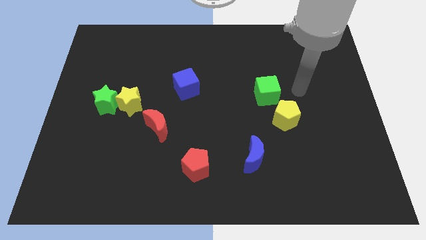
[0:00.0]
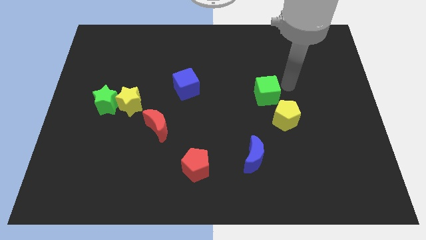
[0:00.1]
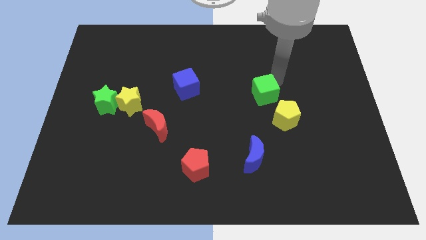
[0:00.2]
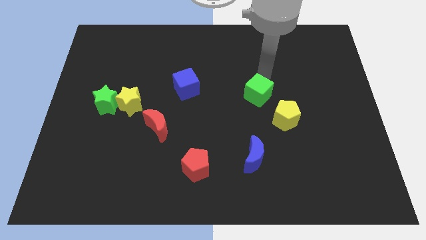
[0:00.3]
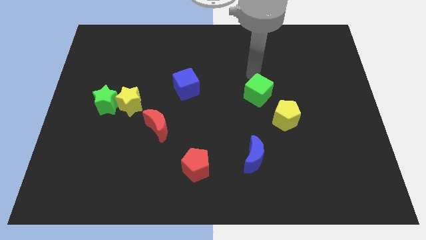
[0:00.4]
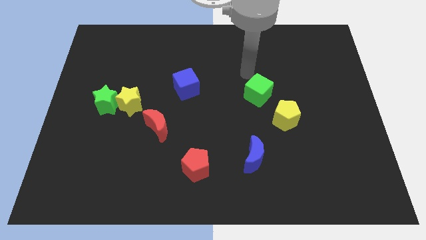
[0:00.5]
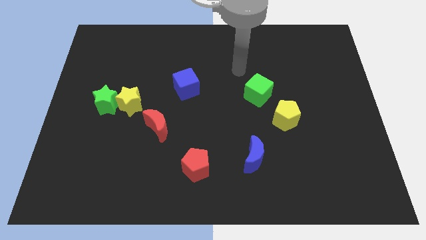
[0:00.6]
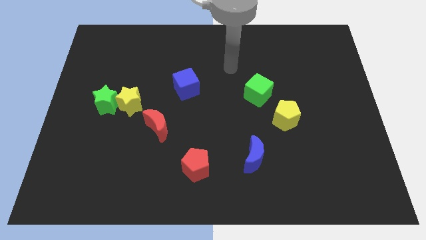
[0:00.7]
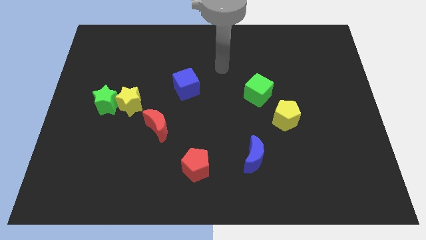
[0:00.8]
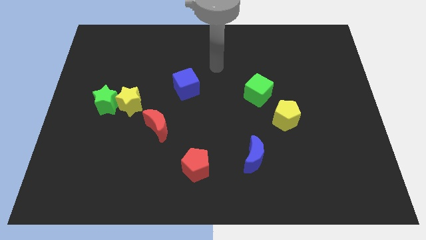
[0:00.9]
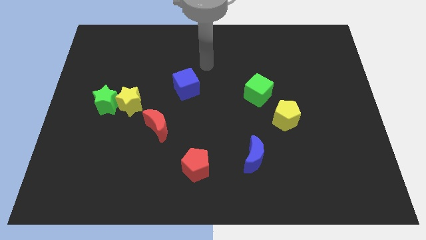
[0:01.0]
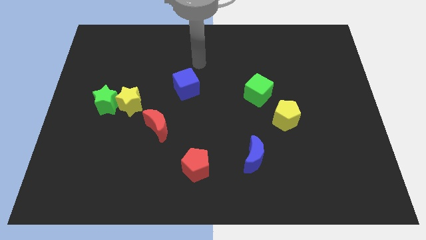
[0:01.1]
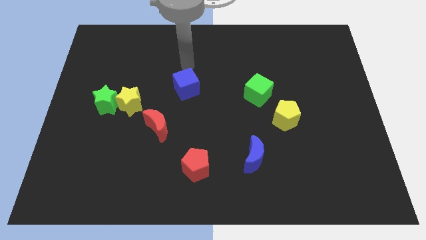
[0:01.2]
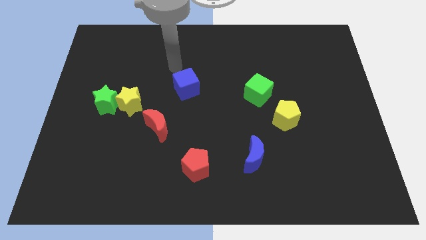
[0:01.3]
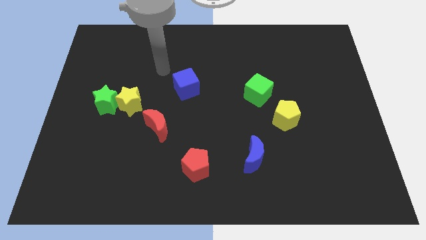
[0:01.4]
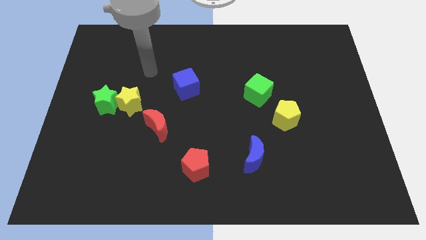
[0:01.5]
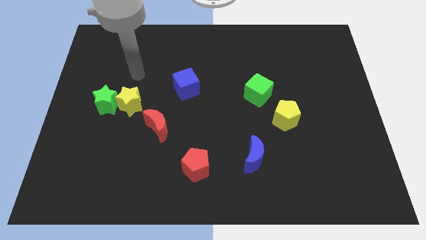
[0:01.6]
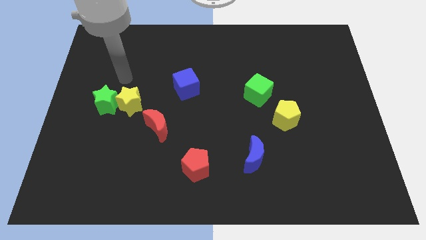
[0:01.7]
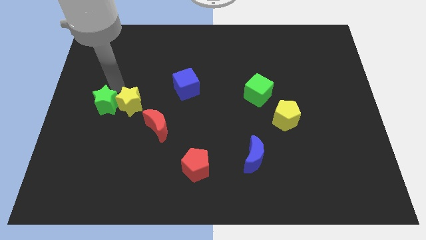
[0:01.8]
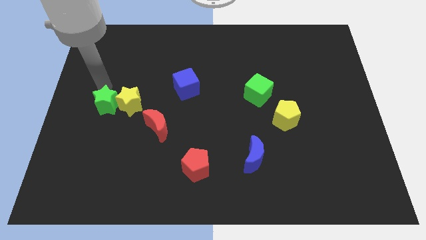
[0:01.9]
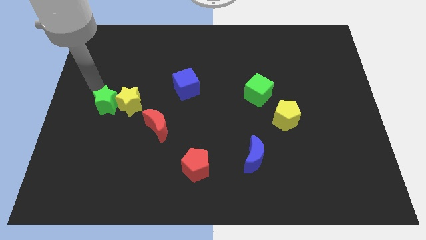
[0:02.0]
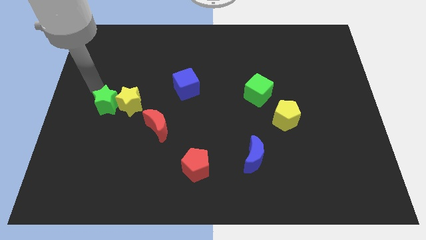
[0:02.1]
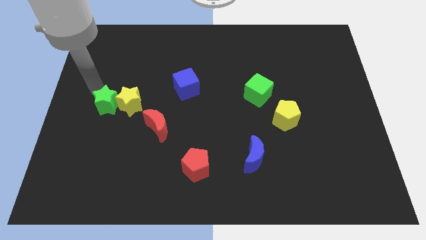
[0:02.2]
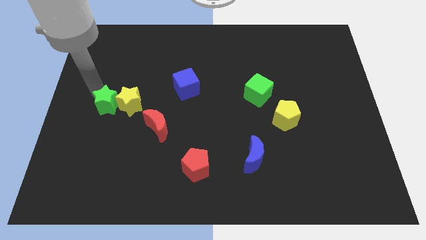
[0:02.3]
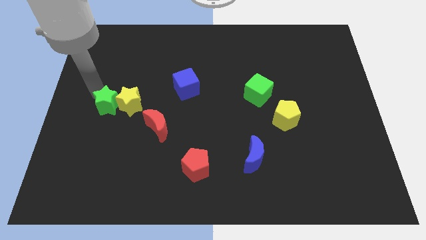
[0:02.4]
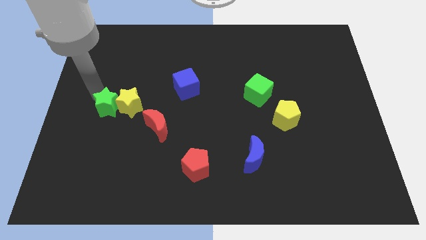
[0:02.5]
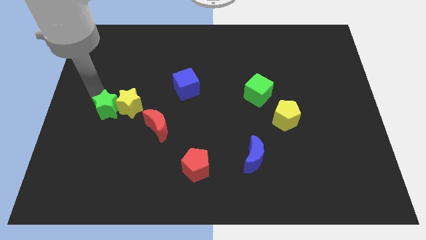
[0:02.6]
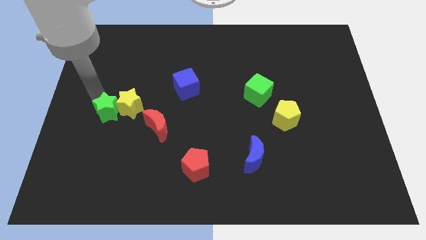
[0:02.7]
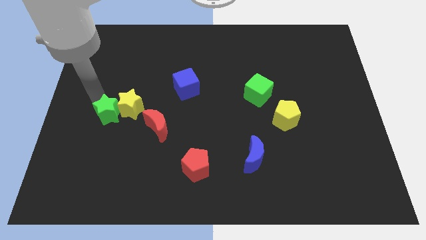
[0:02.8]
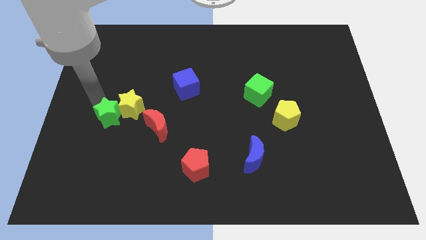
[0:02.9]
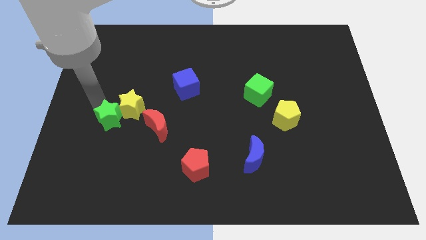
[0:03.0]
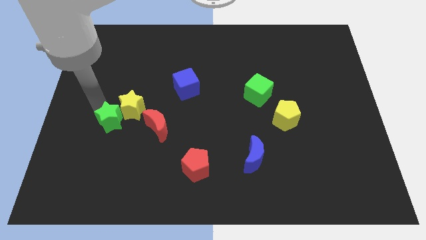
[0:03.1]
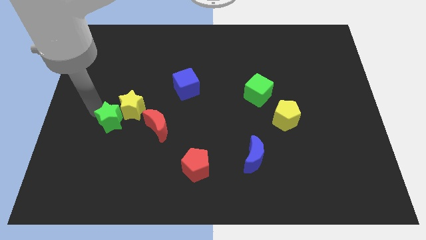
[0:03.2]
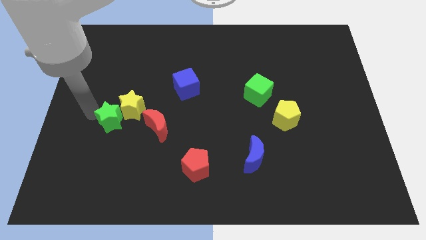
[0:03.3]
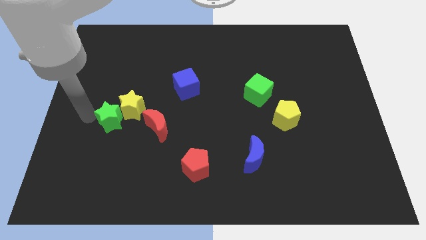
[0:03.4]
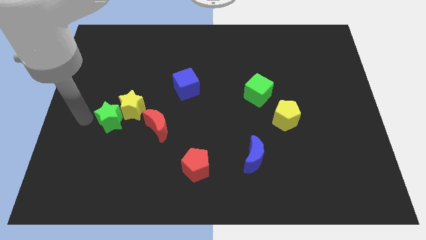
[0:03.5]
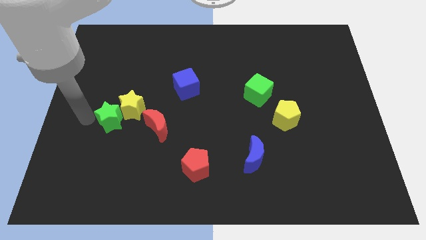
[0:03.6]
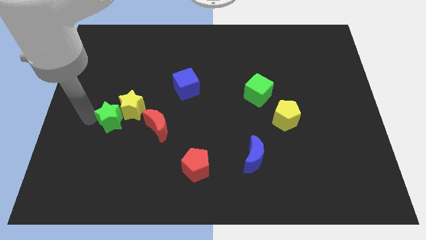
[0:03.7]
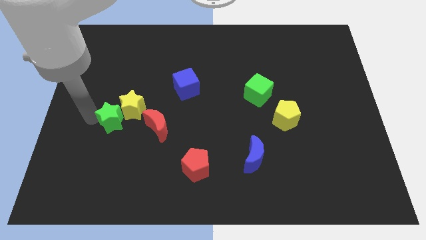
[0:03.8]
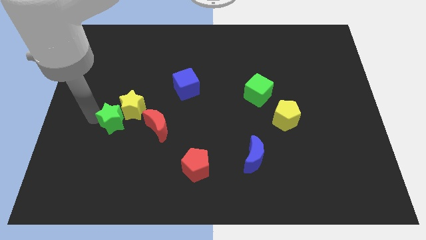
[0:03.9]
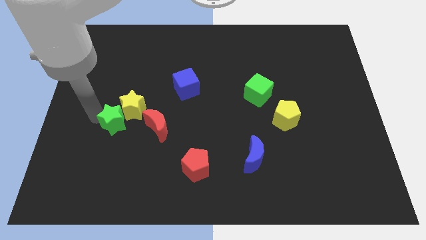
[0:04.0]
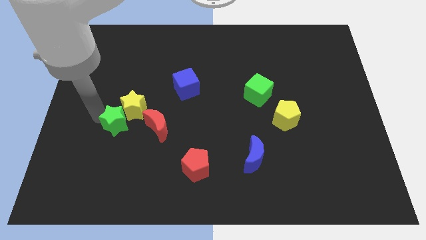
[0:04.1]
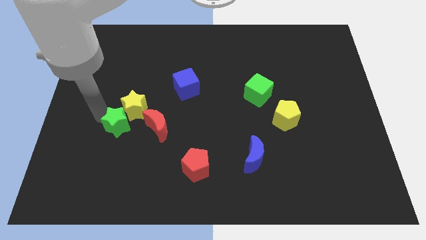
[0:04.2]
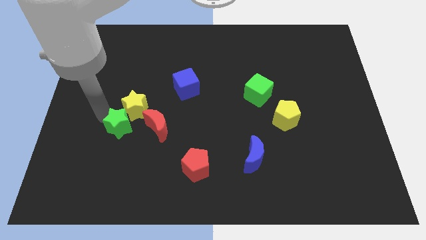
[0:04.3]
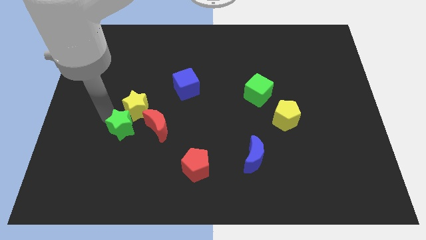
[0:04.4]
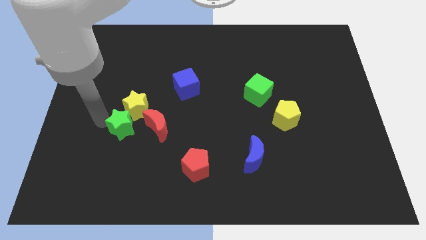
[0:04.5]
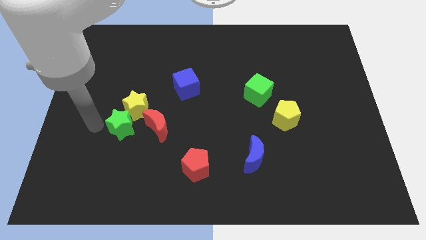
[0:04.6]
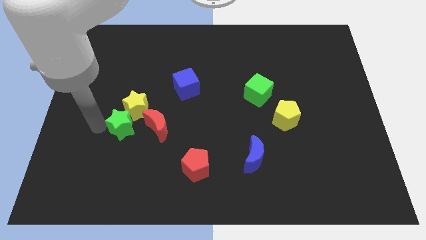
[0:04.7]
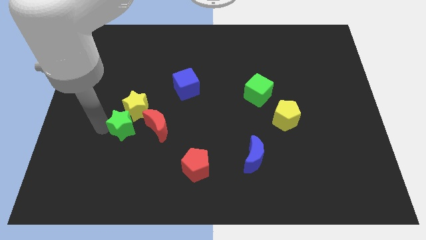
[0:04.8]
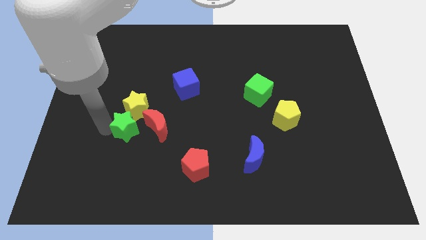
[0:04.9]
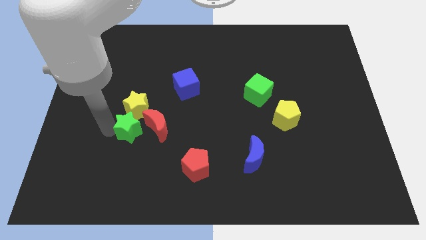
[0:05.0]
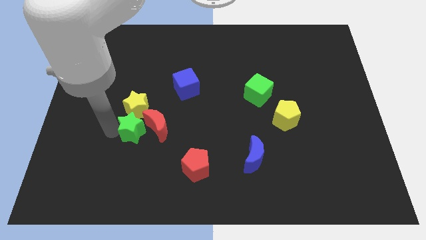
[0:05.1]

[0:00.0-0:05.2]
push the green star next to the red moon

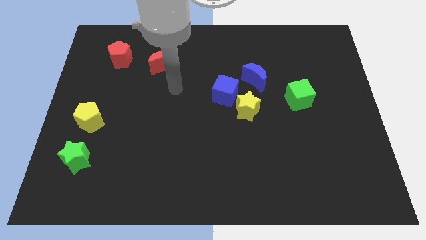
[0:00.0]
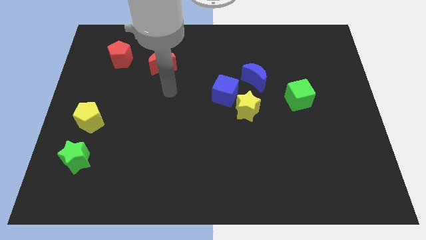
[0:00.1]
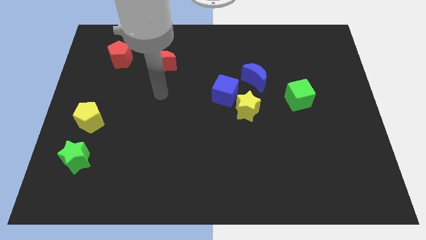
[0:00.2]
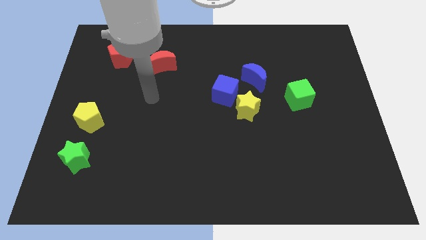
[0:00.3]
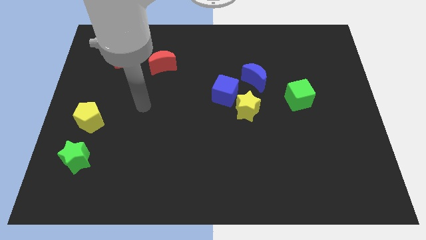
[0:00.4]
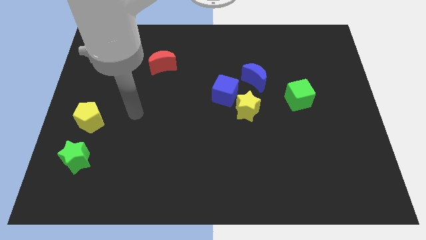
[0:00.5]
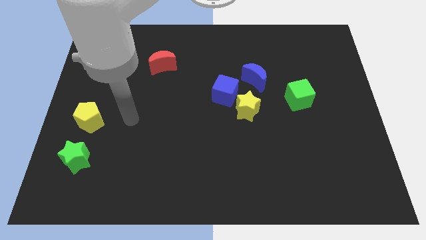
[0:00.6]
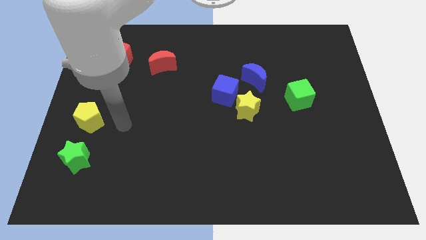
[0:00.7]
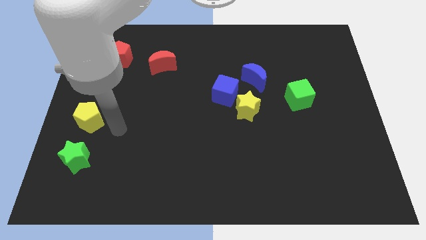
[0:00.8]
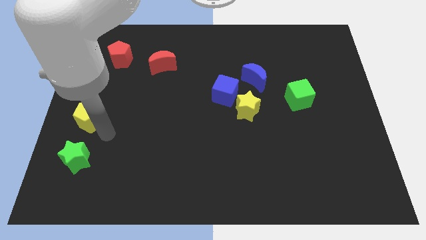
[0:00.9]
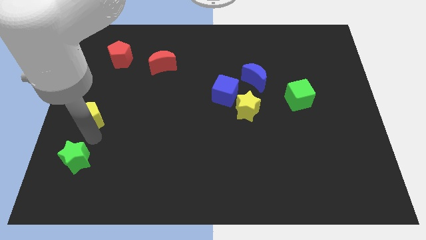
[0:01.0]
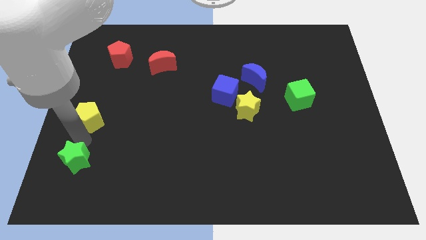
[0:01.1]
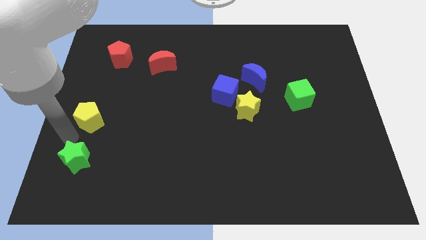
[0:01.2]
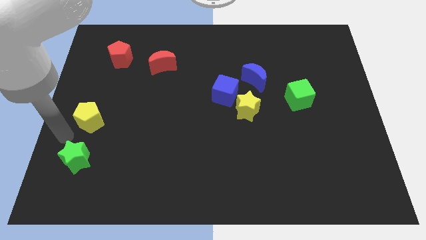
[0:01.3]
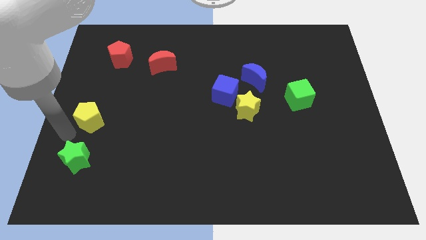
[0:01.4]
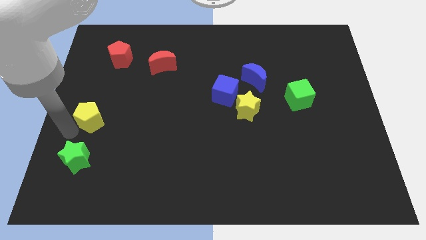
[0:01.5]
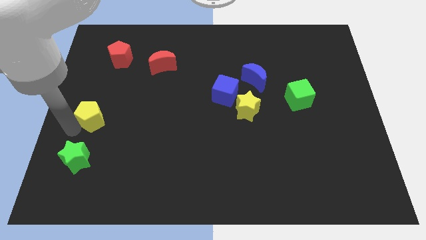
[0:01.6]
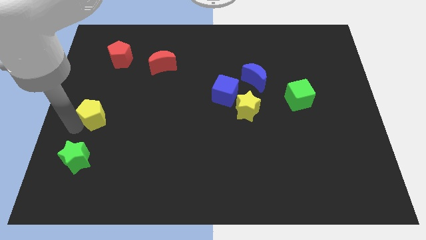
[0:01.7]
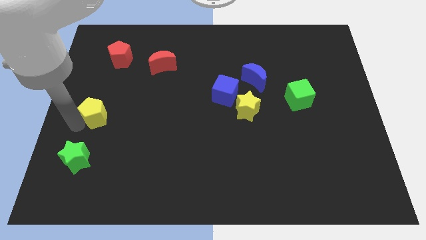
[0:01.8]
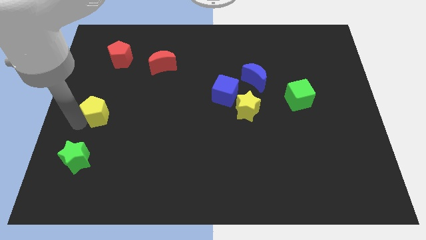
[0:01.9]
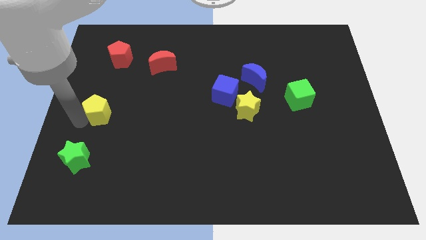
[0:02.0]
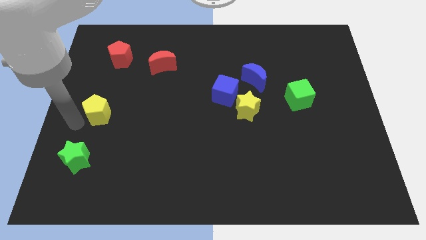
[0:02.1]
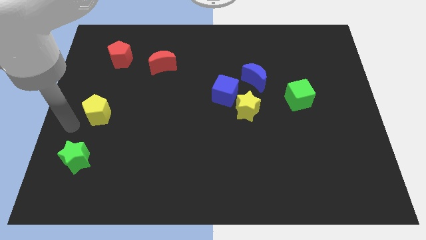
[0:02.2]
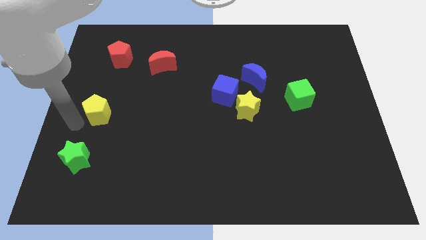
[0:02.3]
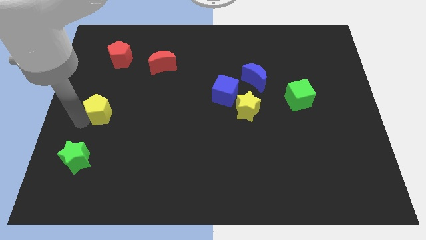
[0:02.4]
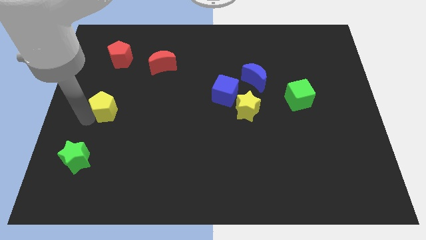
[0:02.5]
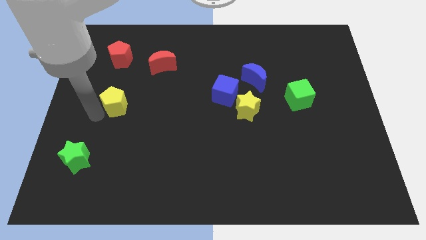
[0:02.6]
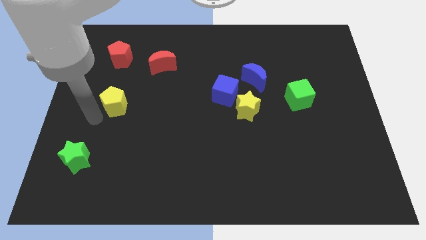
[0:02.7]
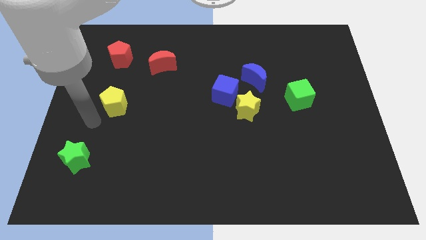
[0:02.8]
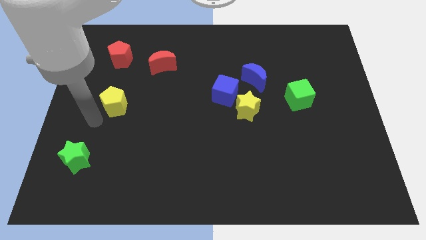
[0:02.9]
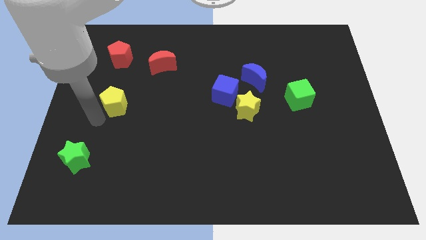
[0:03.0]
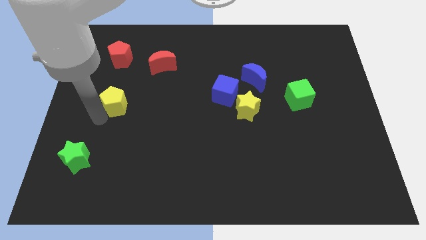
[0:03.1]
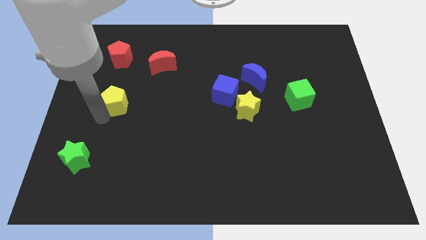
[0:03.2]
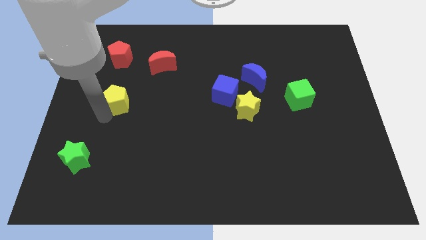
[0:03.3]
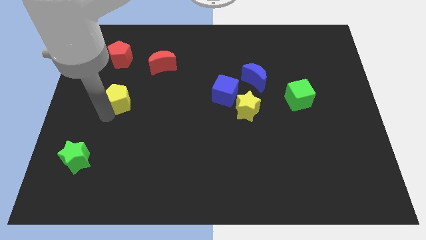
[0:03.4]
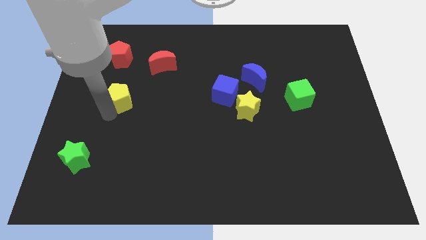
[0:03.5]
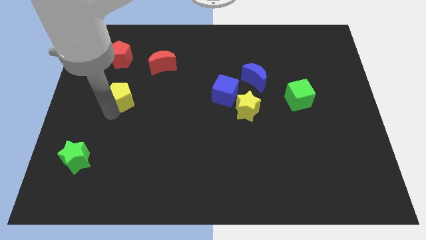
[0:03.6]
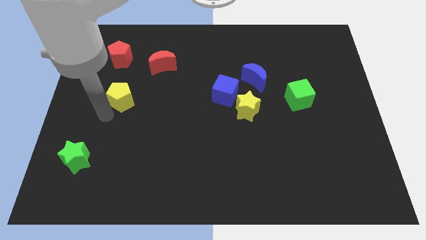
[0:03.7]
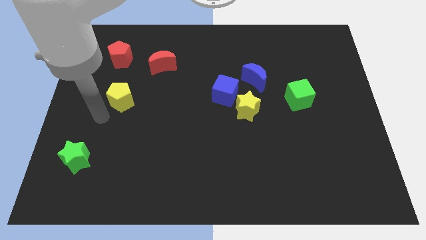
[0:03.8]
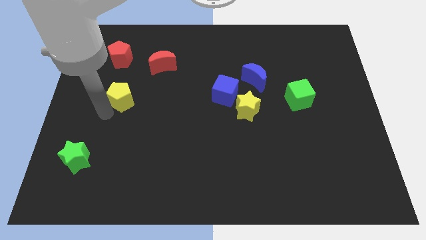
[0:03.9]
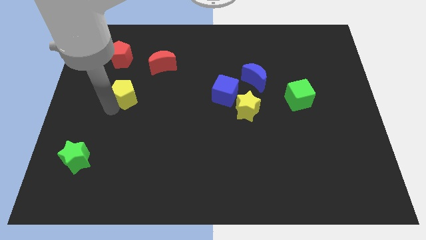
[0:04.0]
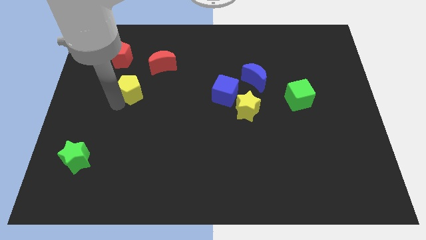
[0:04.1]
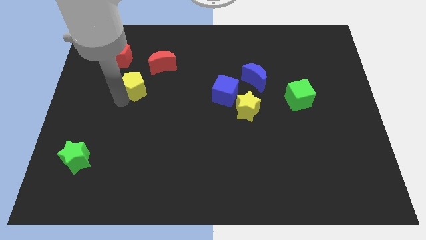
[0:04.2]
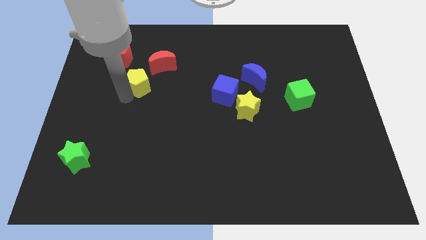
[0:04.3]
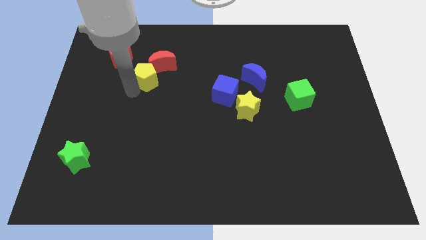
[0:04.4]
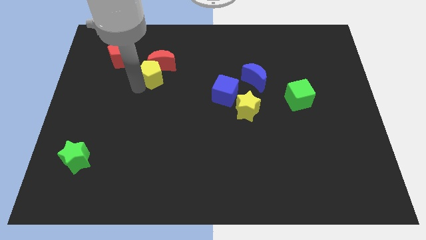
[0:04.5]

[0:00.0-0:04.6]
slide the yellow pentagon next to the red moon
